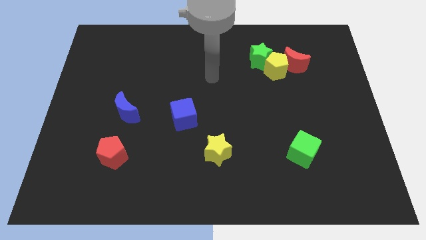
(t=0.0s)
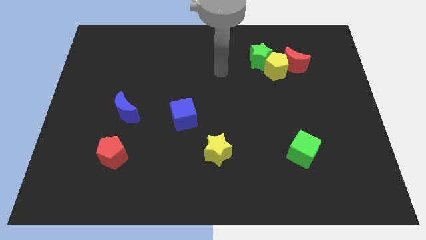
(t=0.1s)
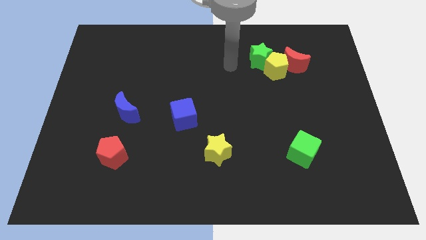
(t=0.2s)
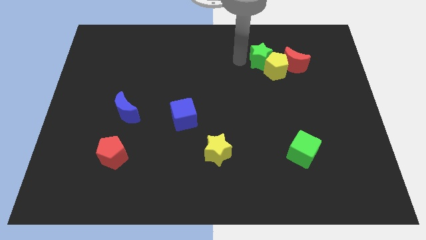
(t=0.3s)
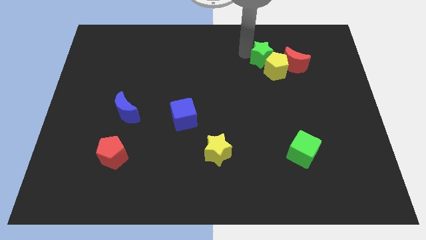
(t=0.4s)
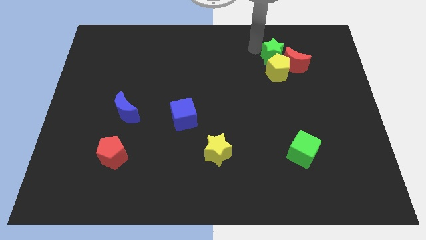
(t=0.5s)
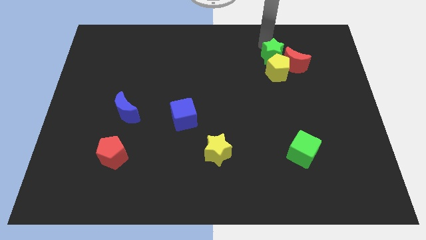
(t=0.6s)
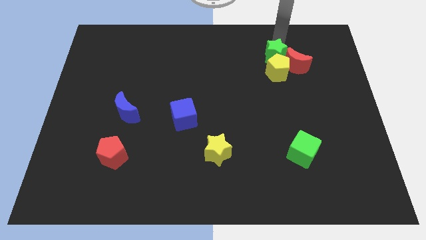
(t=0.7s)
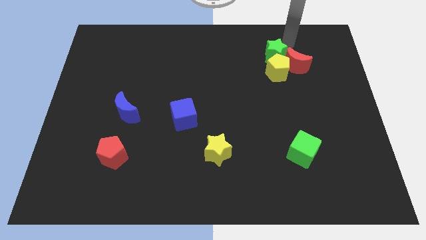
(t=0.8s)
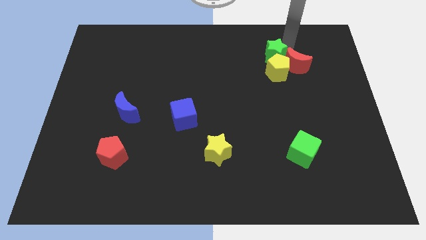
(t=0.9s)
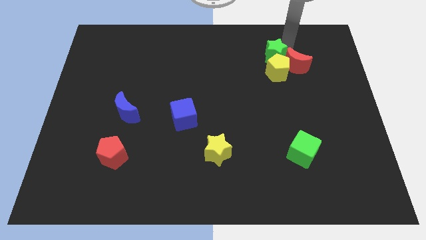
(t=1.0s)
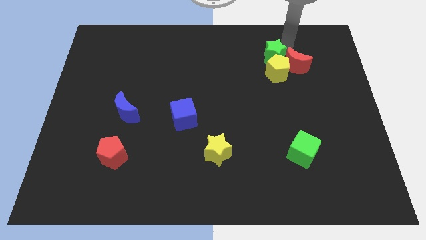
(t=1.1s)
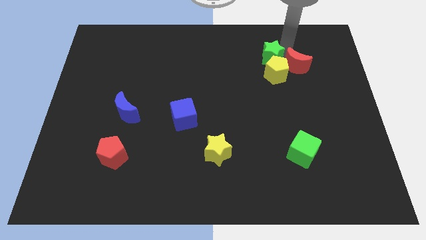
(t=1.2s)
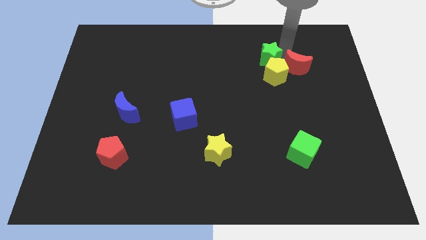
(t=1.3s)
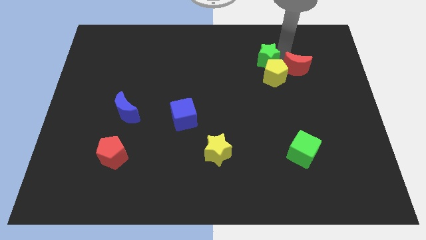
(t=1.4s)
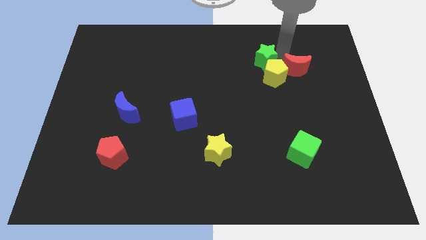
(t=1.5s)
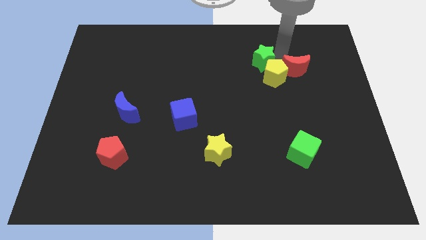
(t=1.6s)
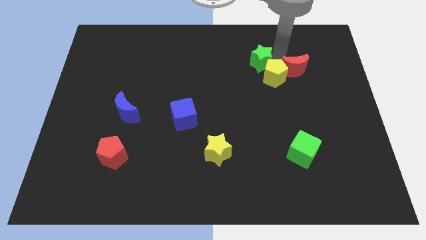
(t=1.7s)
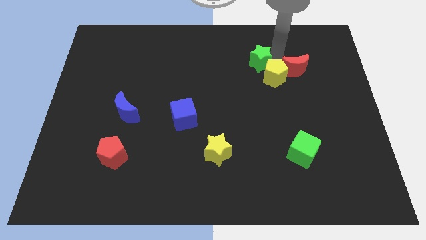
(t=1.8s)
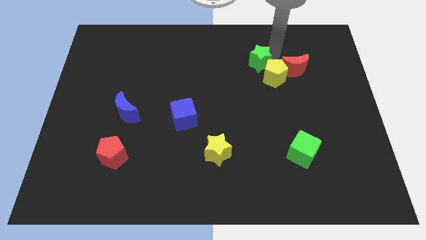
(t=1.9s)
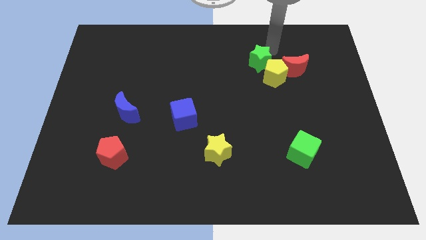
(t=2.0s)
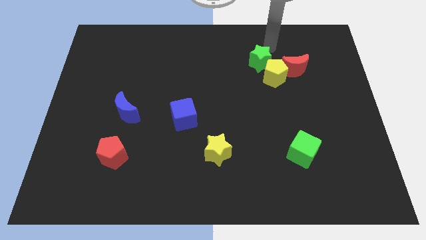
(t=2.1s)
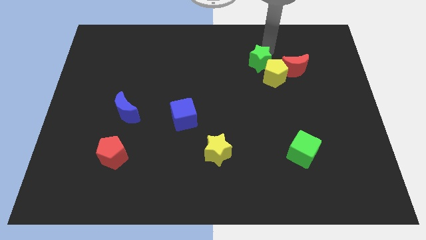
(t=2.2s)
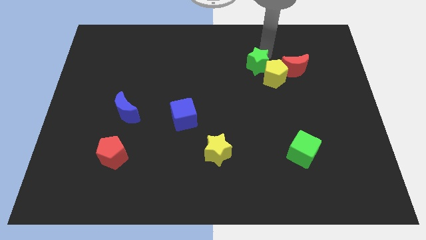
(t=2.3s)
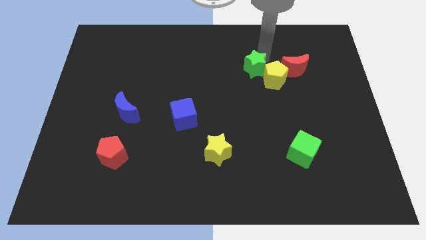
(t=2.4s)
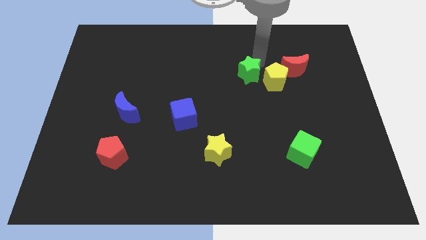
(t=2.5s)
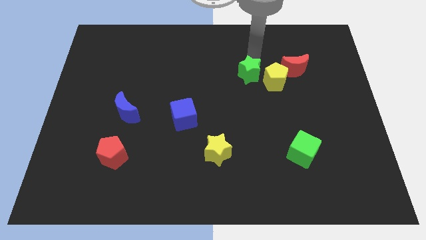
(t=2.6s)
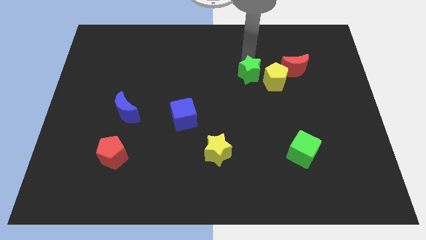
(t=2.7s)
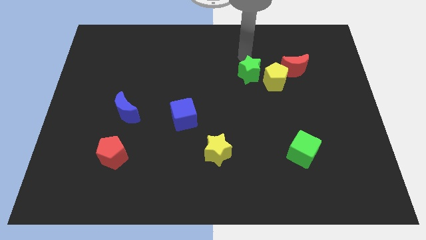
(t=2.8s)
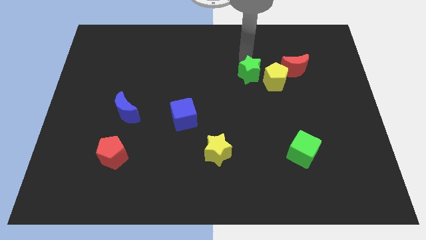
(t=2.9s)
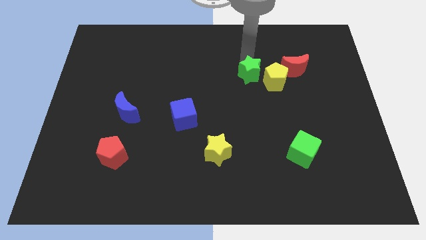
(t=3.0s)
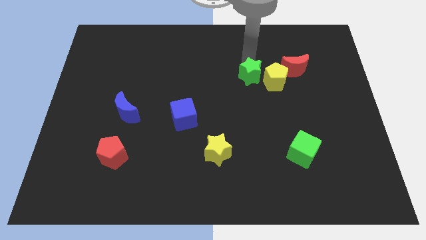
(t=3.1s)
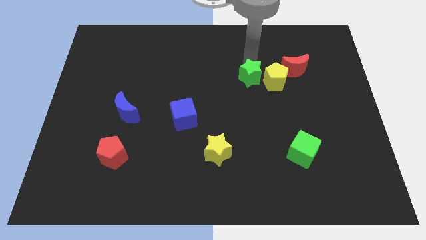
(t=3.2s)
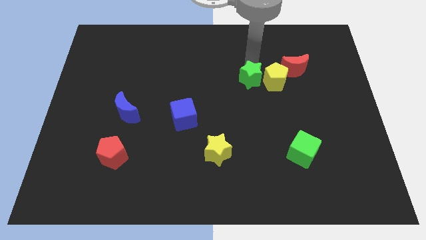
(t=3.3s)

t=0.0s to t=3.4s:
slightly move the green star down

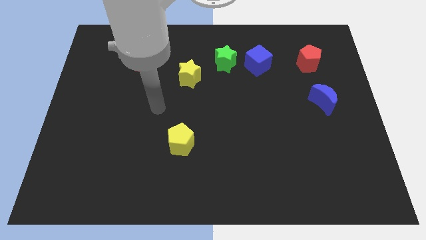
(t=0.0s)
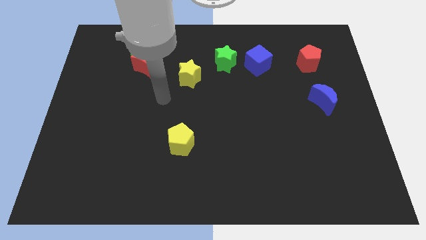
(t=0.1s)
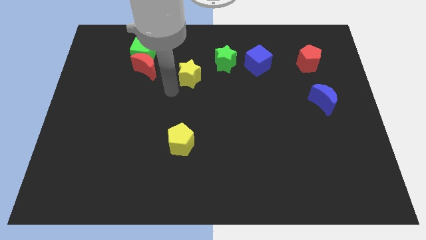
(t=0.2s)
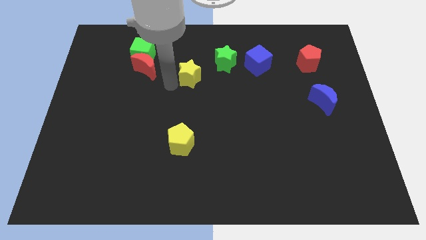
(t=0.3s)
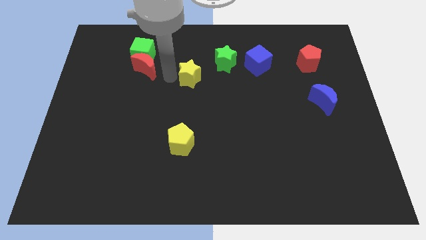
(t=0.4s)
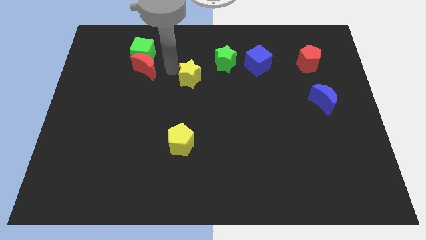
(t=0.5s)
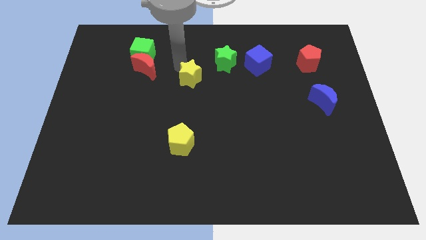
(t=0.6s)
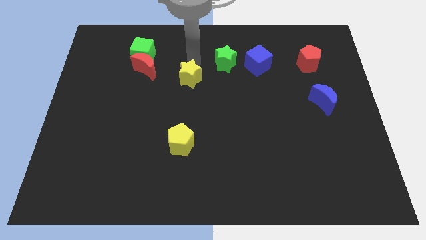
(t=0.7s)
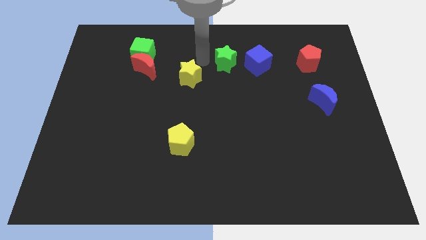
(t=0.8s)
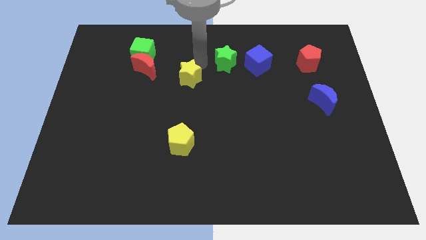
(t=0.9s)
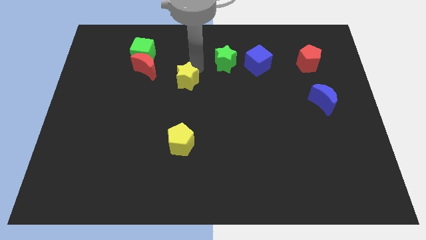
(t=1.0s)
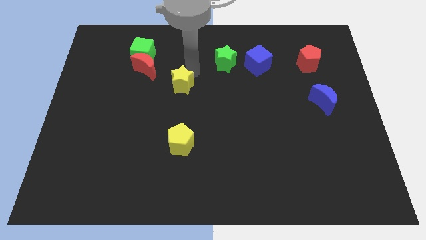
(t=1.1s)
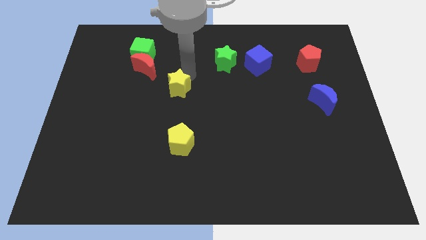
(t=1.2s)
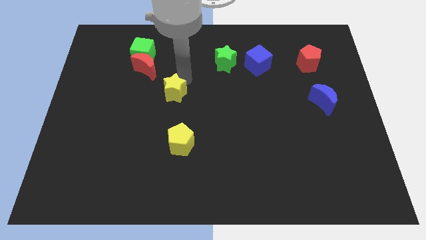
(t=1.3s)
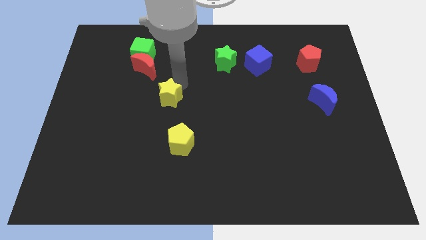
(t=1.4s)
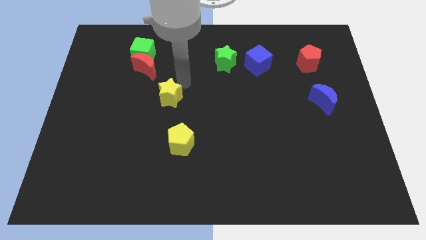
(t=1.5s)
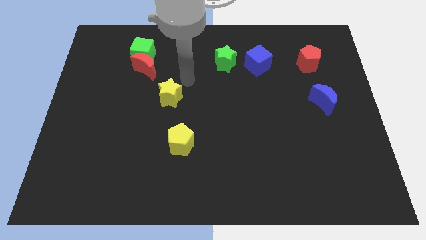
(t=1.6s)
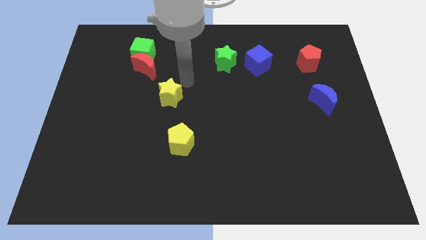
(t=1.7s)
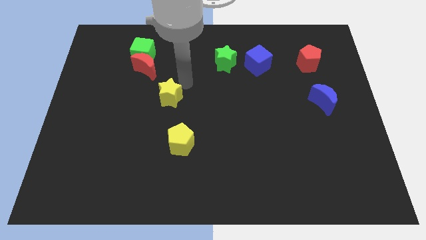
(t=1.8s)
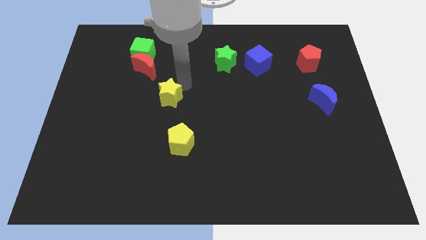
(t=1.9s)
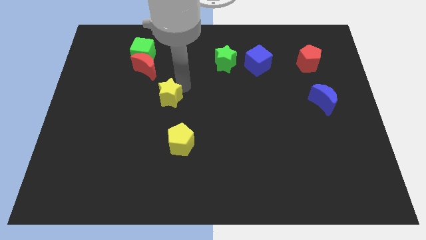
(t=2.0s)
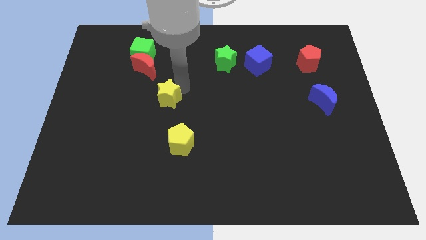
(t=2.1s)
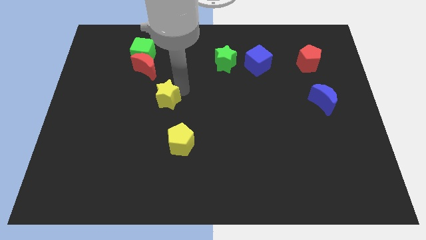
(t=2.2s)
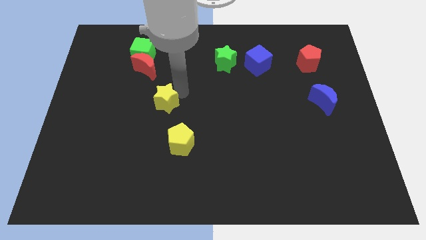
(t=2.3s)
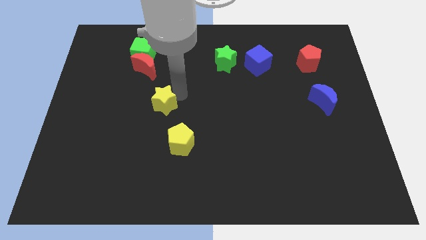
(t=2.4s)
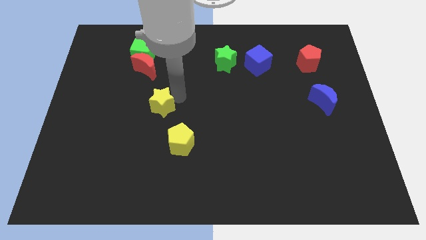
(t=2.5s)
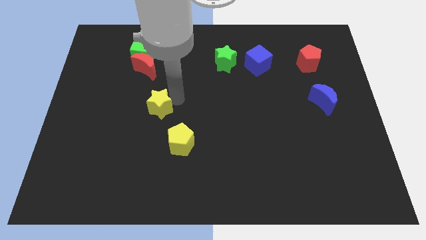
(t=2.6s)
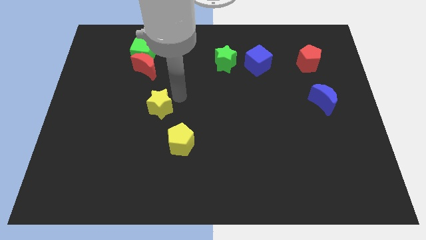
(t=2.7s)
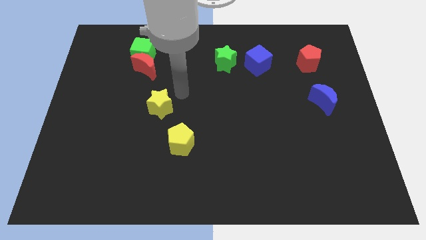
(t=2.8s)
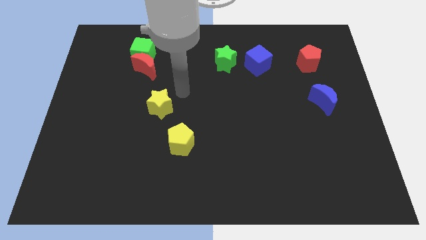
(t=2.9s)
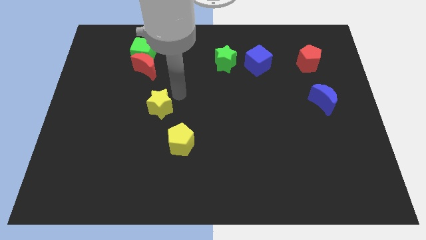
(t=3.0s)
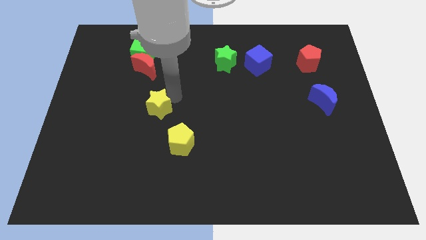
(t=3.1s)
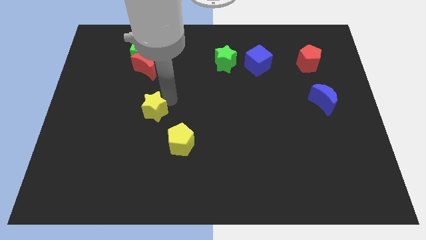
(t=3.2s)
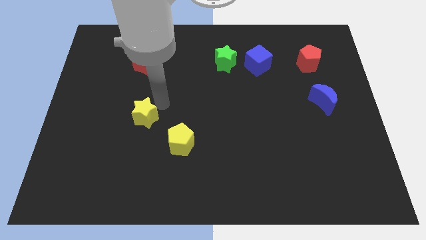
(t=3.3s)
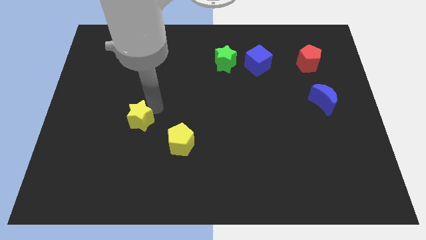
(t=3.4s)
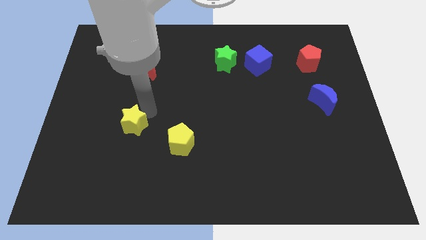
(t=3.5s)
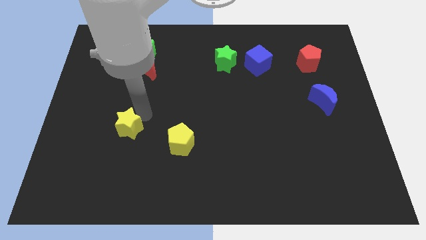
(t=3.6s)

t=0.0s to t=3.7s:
slide the yellow star downwards and left diagonally

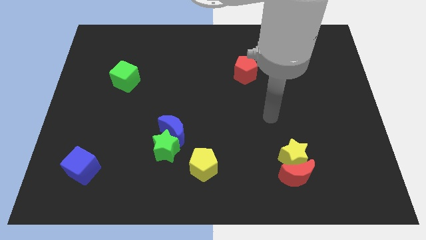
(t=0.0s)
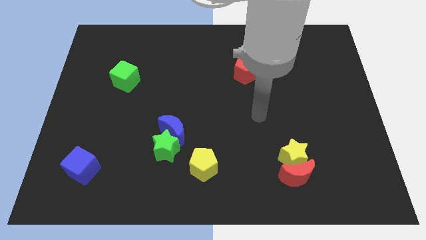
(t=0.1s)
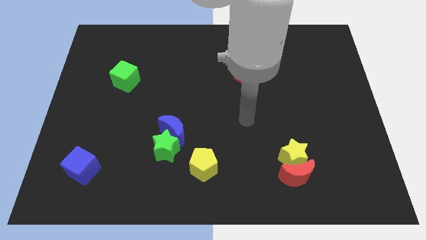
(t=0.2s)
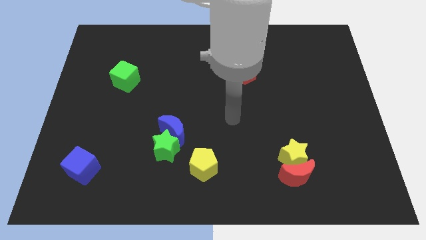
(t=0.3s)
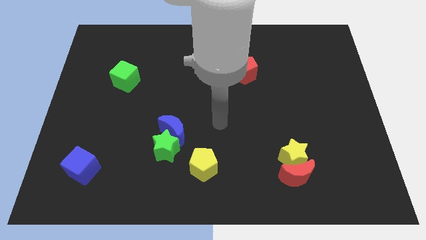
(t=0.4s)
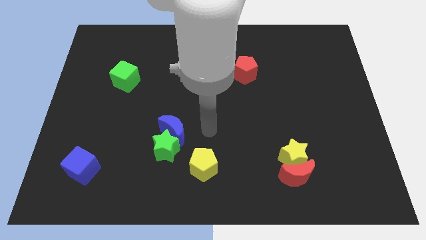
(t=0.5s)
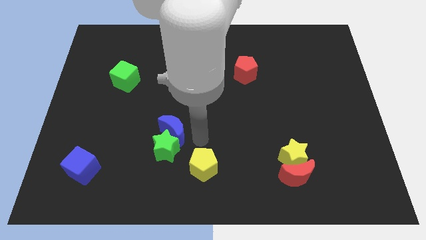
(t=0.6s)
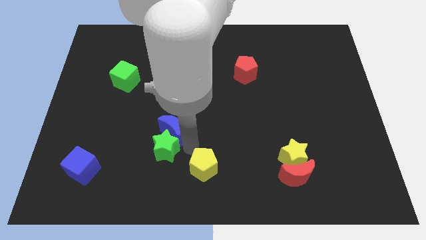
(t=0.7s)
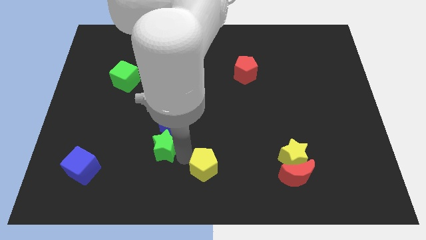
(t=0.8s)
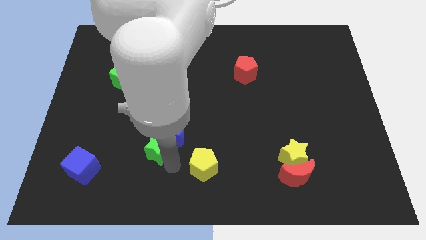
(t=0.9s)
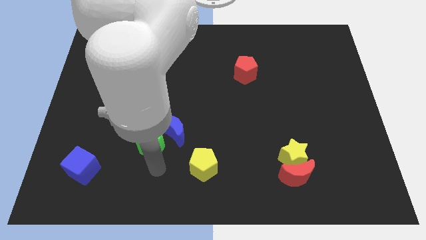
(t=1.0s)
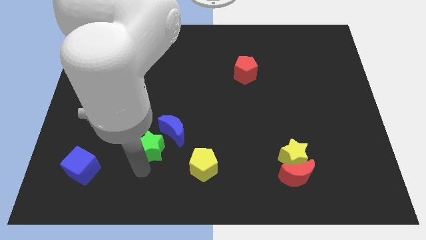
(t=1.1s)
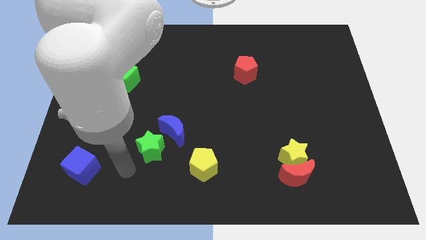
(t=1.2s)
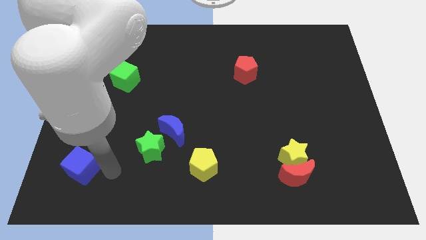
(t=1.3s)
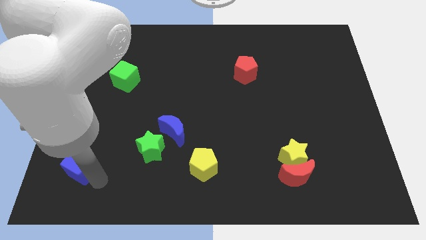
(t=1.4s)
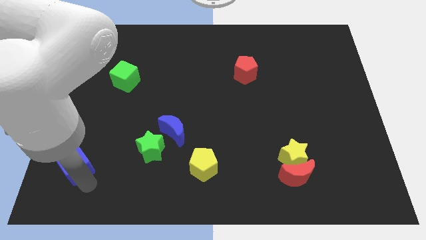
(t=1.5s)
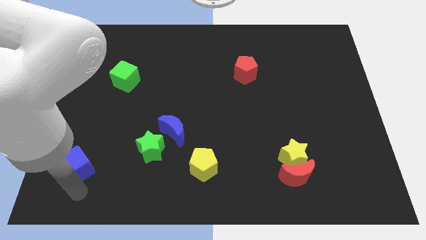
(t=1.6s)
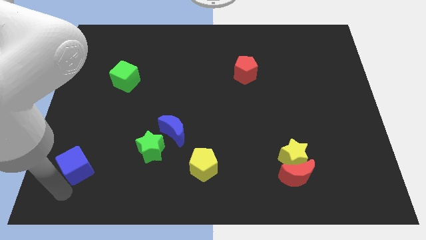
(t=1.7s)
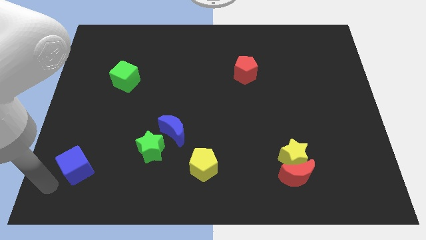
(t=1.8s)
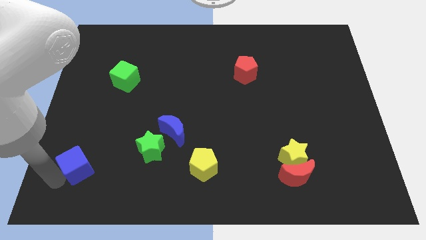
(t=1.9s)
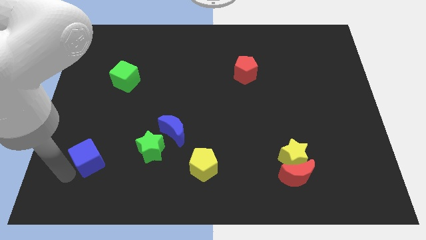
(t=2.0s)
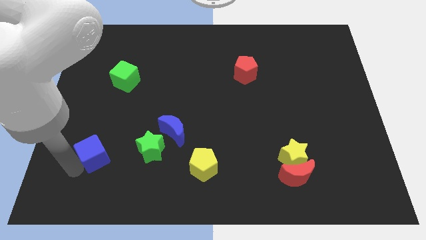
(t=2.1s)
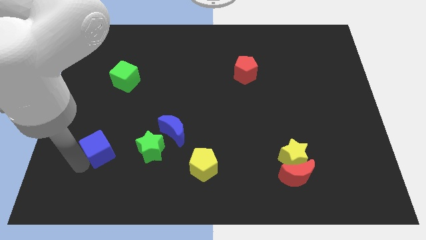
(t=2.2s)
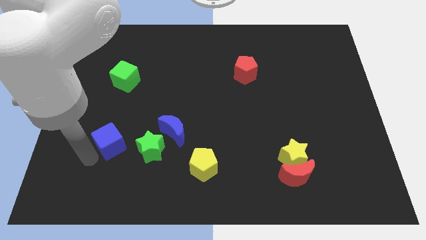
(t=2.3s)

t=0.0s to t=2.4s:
slightly slide the blue cube diagonally upwards and right
